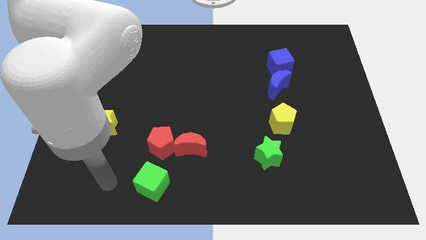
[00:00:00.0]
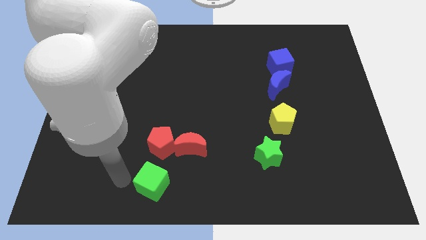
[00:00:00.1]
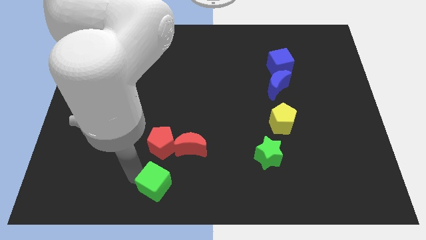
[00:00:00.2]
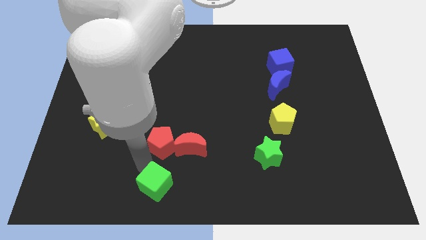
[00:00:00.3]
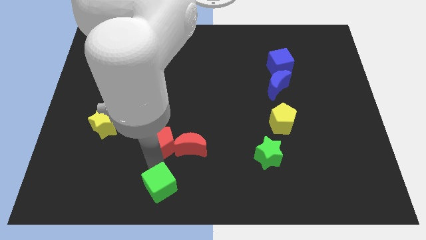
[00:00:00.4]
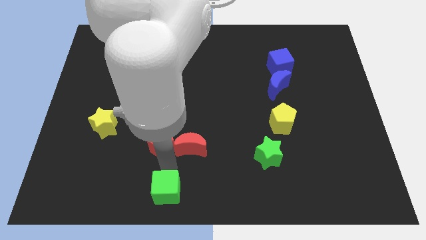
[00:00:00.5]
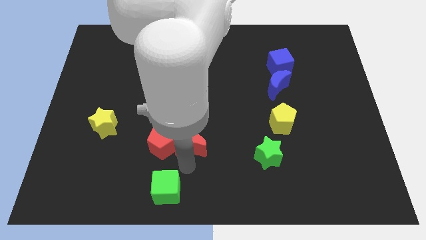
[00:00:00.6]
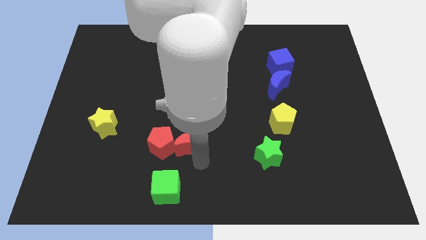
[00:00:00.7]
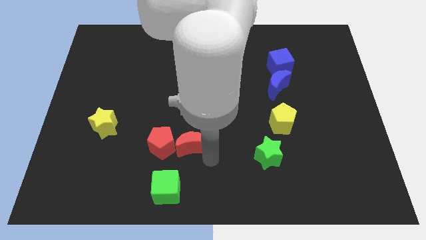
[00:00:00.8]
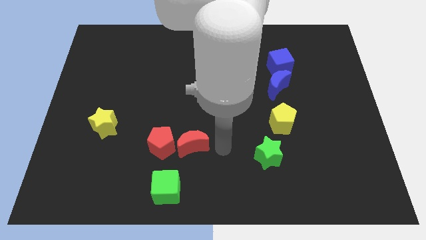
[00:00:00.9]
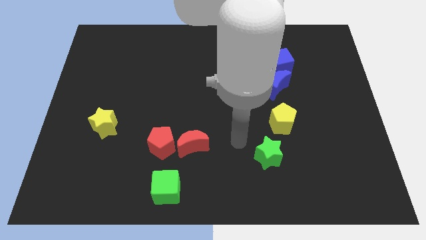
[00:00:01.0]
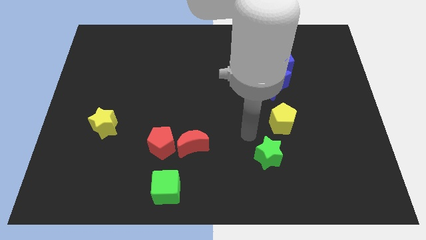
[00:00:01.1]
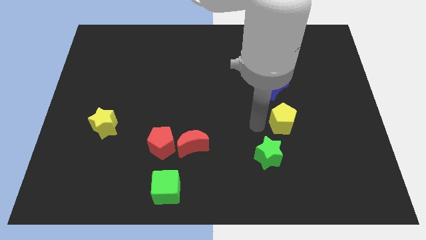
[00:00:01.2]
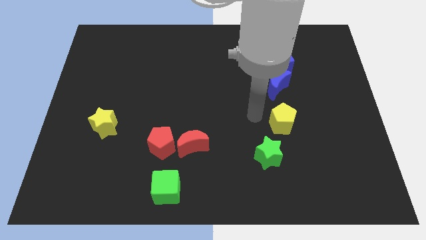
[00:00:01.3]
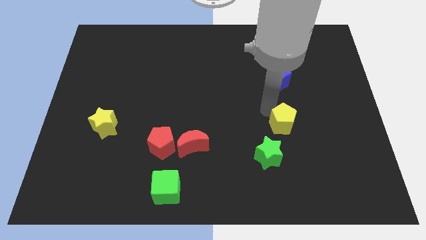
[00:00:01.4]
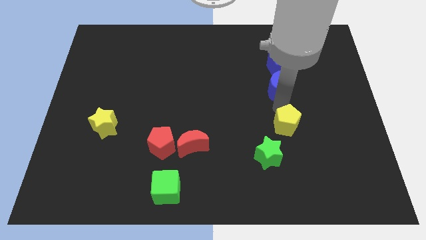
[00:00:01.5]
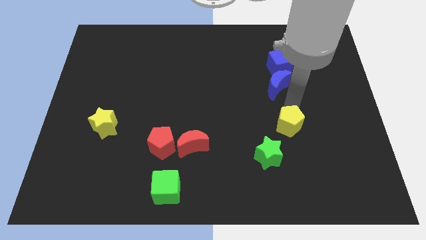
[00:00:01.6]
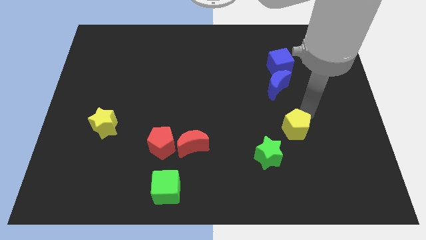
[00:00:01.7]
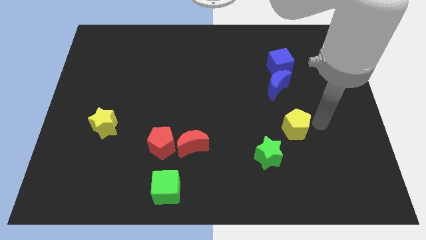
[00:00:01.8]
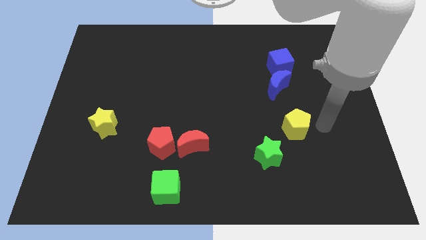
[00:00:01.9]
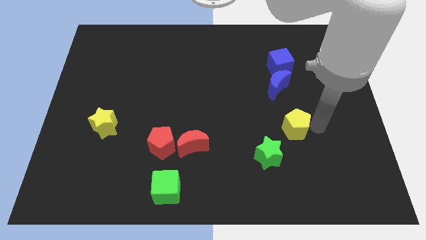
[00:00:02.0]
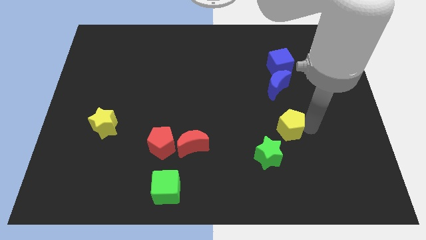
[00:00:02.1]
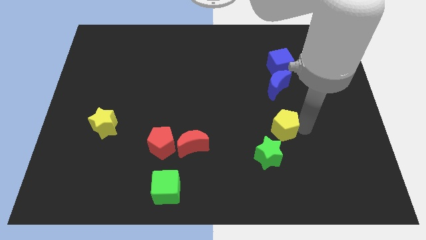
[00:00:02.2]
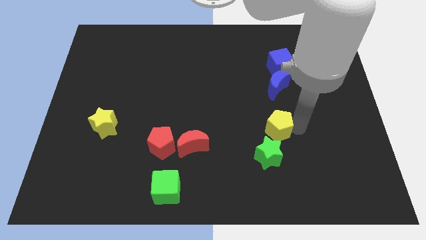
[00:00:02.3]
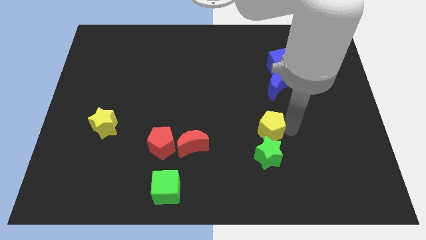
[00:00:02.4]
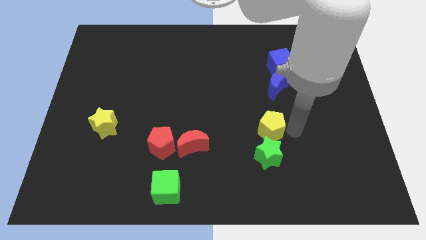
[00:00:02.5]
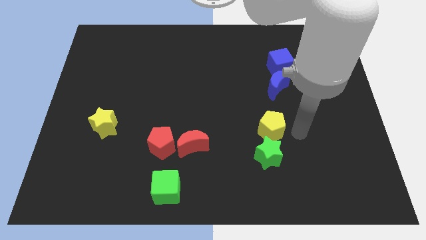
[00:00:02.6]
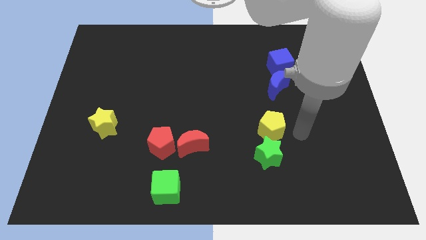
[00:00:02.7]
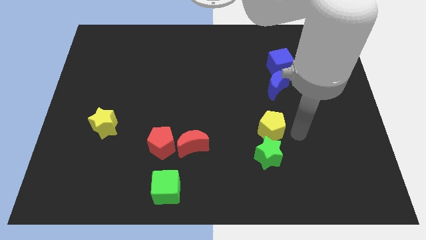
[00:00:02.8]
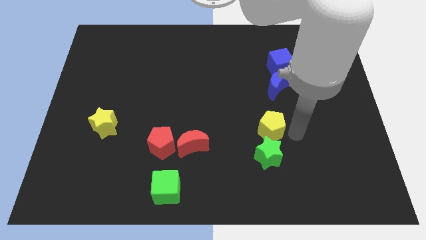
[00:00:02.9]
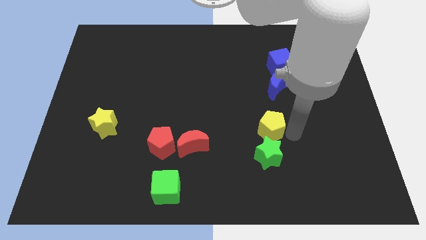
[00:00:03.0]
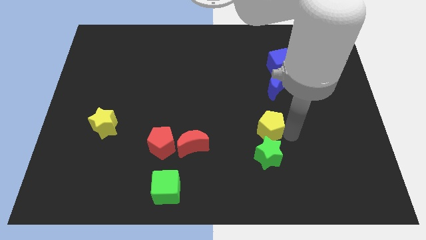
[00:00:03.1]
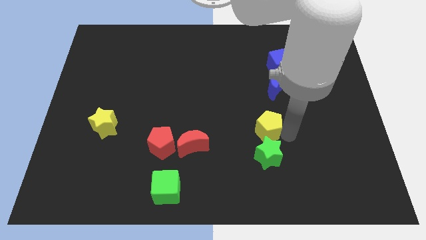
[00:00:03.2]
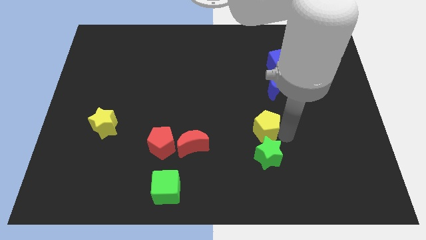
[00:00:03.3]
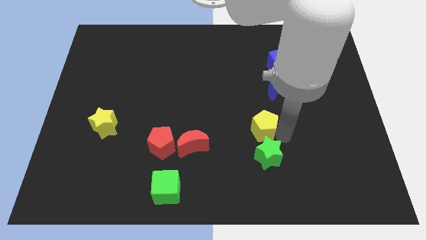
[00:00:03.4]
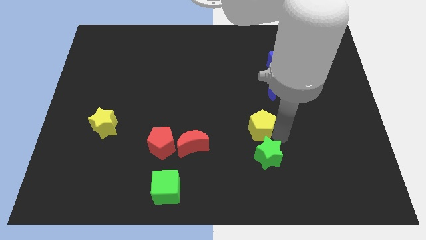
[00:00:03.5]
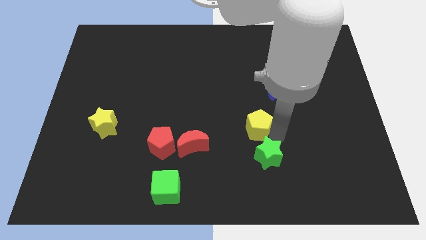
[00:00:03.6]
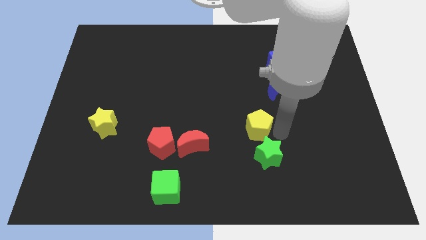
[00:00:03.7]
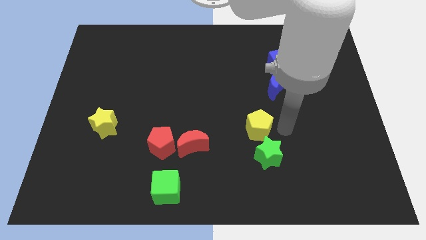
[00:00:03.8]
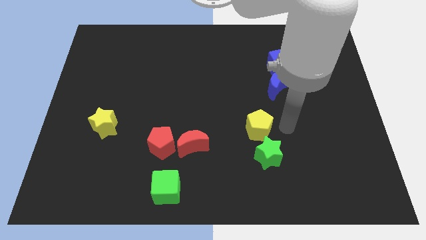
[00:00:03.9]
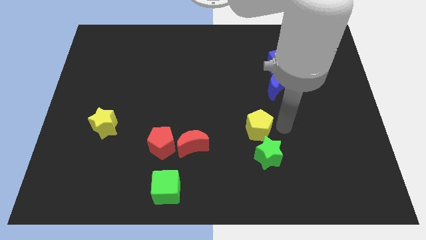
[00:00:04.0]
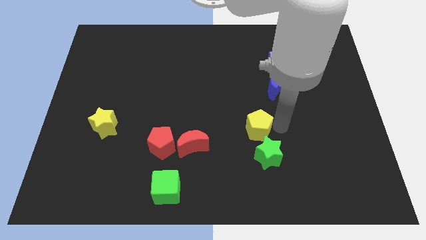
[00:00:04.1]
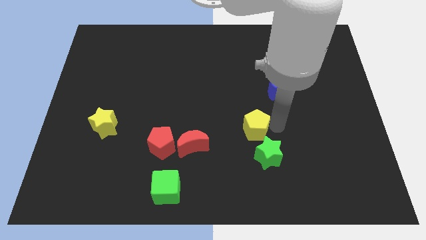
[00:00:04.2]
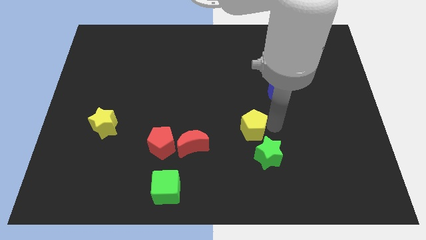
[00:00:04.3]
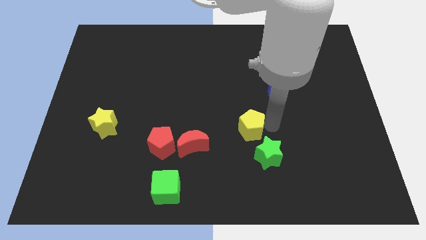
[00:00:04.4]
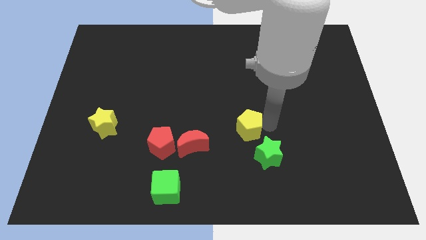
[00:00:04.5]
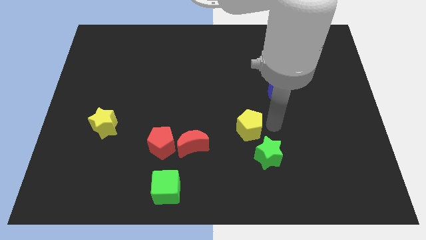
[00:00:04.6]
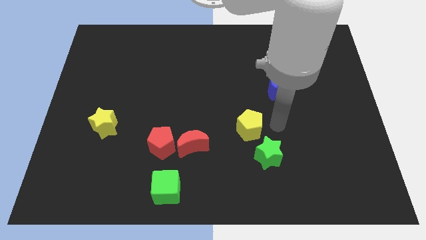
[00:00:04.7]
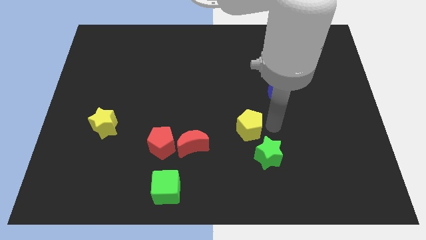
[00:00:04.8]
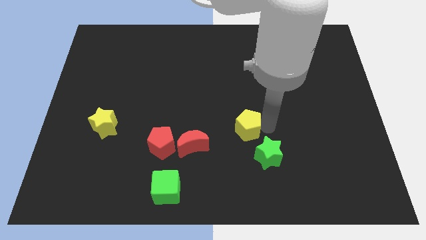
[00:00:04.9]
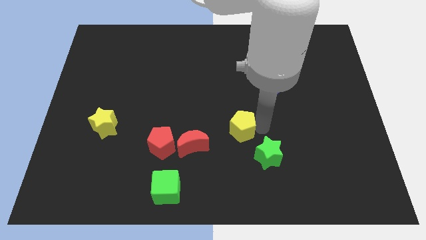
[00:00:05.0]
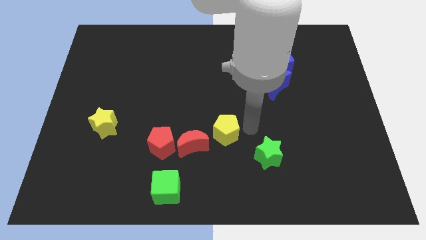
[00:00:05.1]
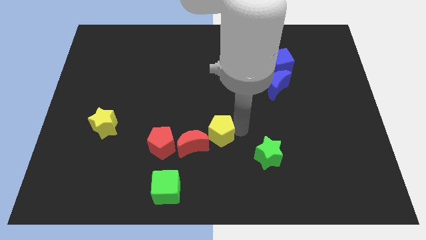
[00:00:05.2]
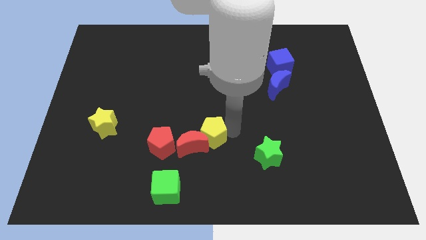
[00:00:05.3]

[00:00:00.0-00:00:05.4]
move the yellow pentagon close to the red moon

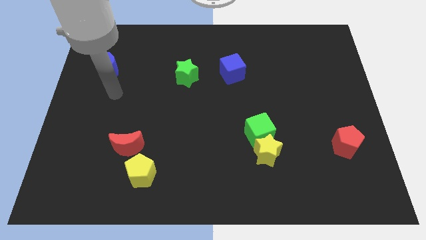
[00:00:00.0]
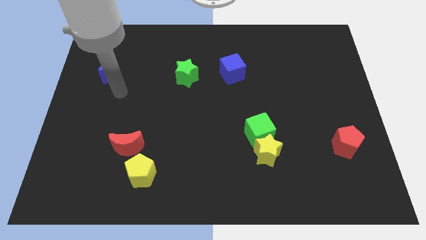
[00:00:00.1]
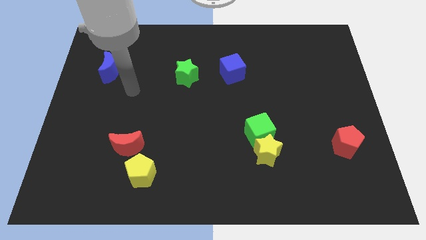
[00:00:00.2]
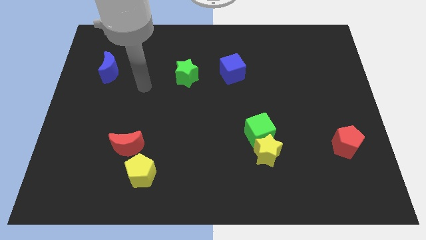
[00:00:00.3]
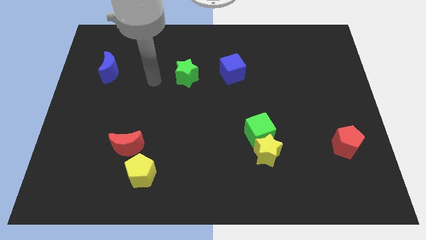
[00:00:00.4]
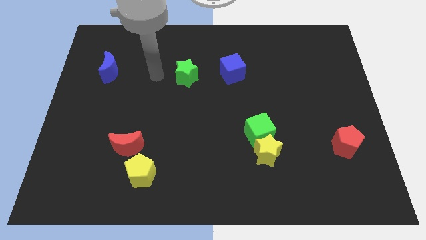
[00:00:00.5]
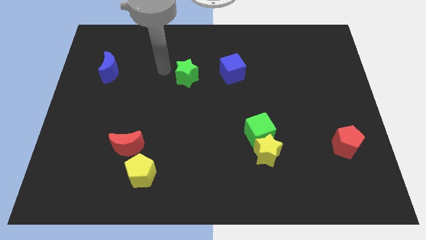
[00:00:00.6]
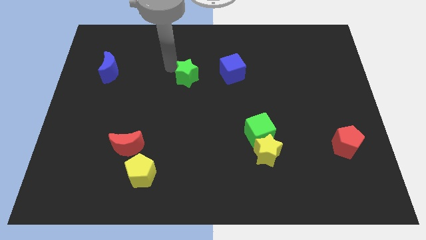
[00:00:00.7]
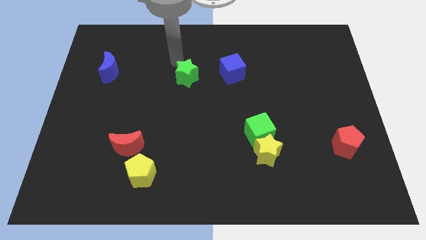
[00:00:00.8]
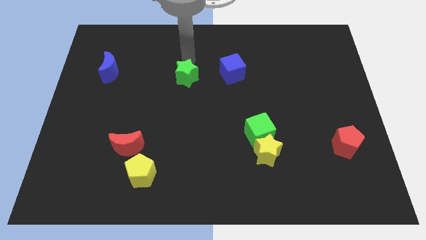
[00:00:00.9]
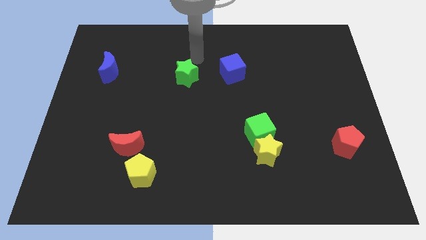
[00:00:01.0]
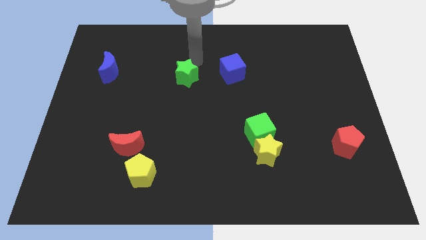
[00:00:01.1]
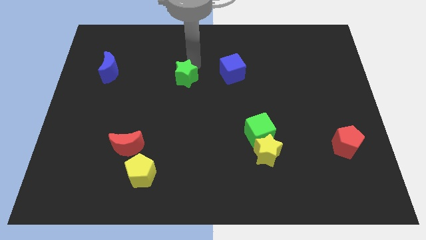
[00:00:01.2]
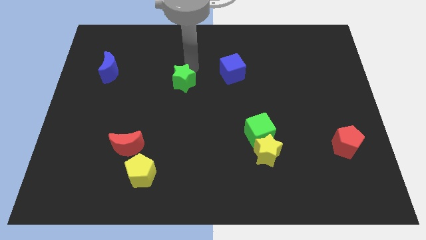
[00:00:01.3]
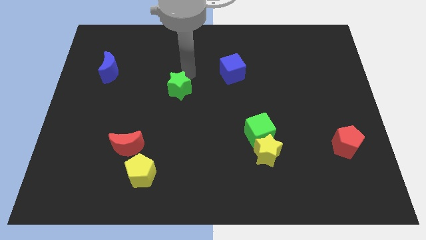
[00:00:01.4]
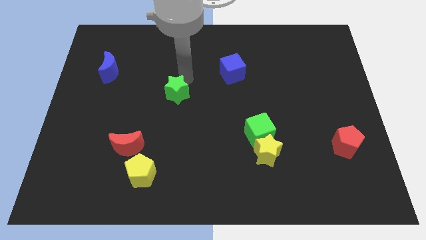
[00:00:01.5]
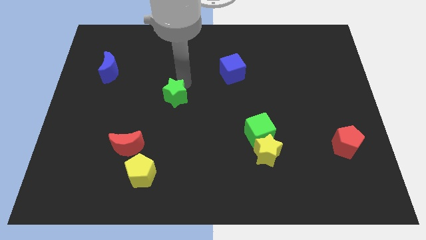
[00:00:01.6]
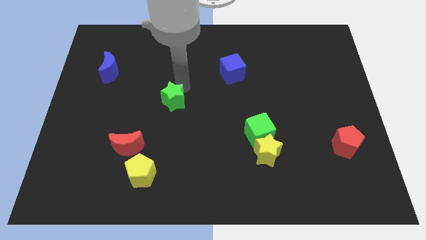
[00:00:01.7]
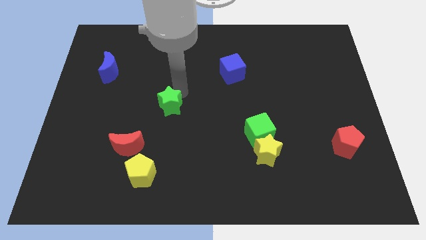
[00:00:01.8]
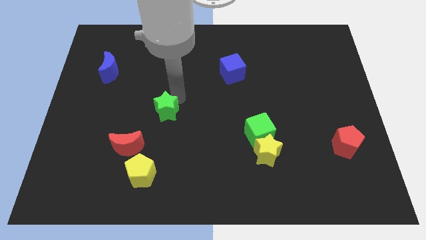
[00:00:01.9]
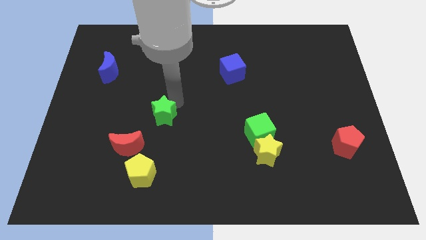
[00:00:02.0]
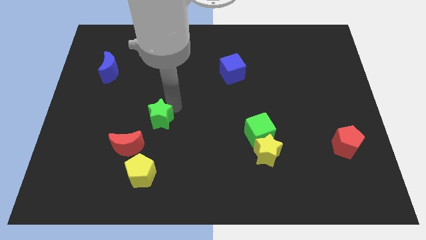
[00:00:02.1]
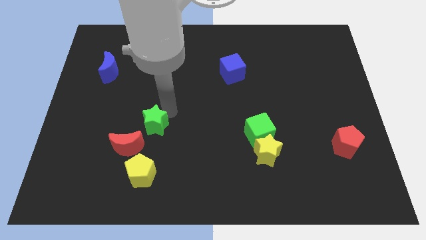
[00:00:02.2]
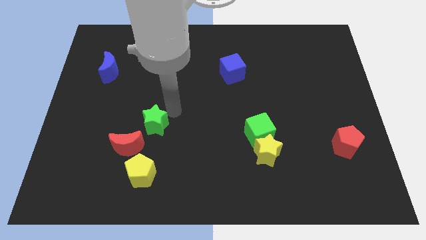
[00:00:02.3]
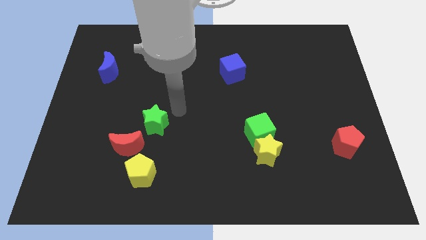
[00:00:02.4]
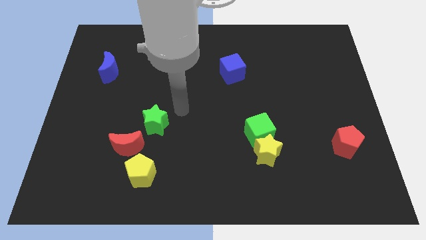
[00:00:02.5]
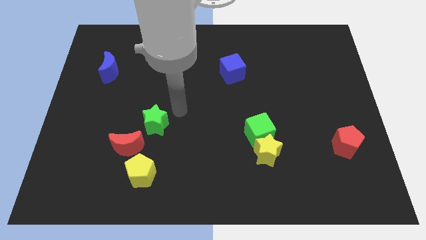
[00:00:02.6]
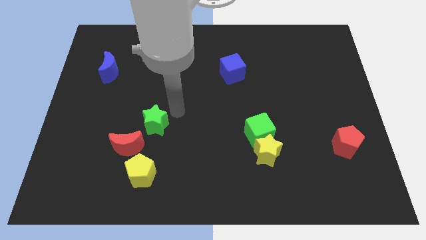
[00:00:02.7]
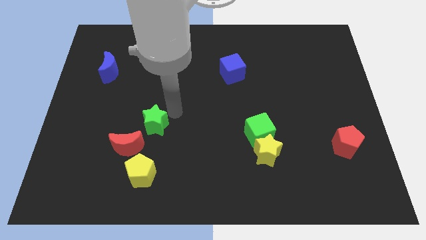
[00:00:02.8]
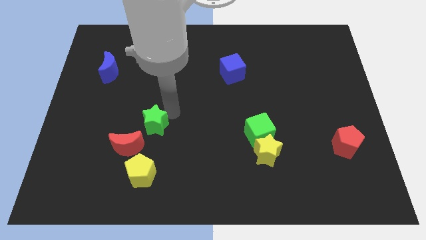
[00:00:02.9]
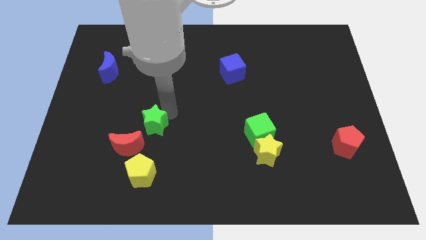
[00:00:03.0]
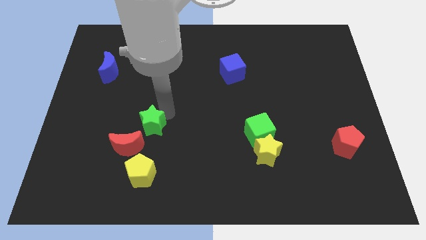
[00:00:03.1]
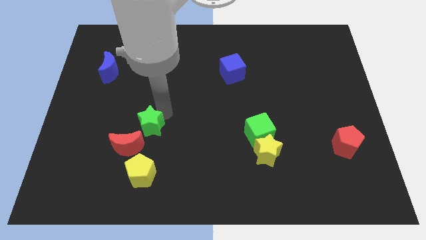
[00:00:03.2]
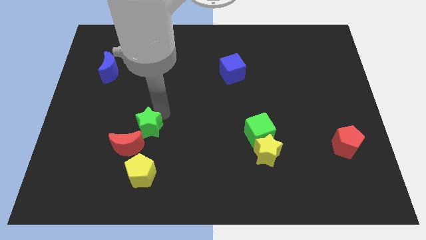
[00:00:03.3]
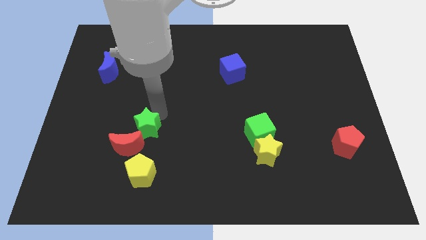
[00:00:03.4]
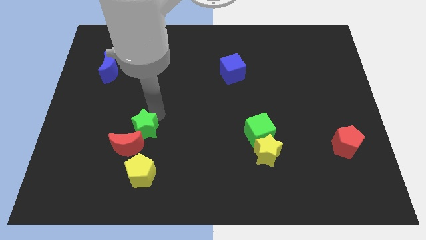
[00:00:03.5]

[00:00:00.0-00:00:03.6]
put the green star next to the red moon
